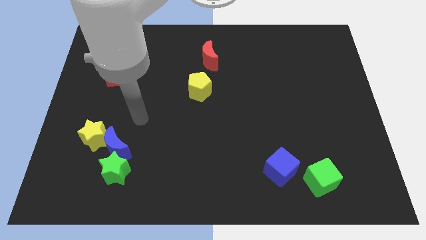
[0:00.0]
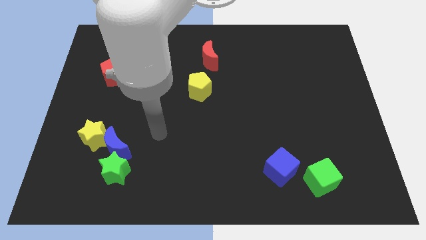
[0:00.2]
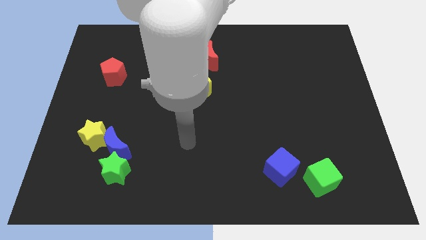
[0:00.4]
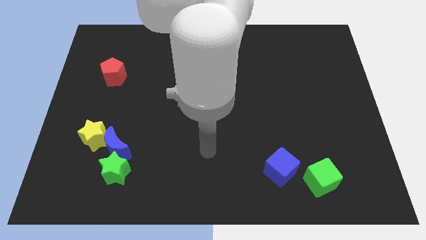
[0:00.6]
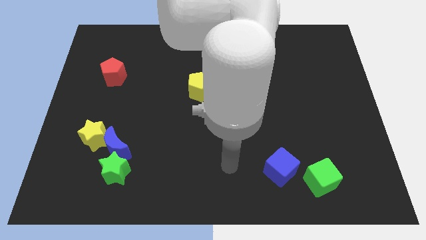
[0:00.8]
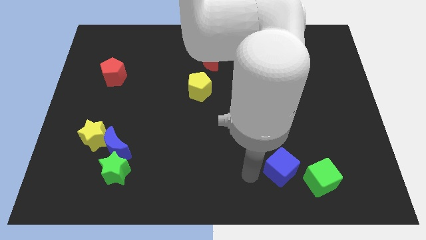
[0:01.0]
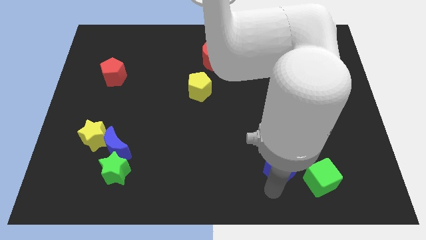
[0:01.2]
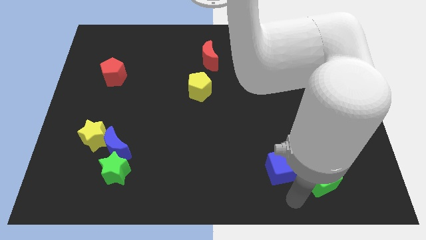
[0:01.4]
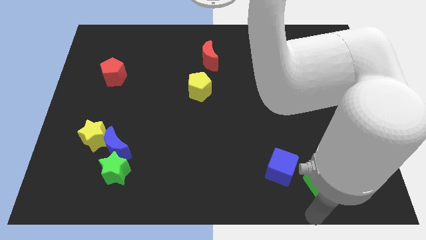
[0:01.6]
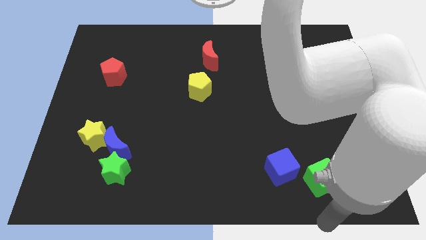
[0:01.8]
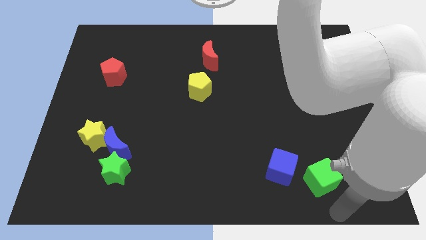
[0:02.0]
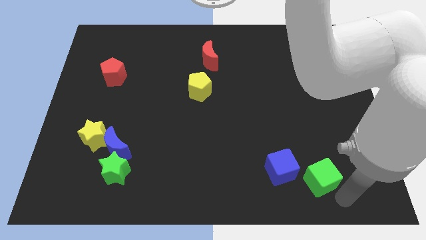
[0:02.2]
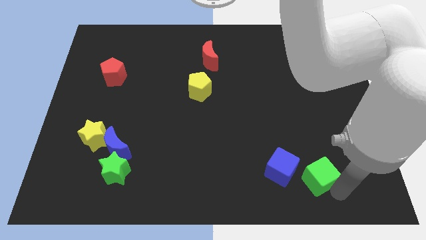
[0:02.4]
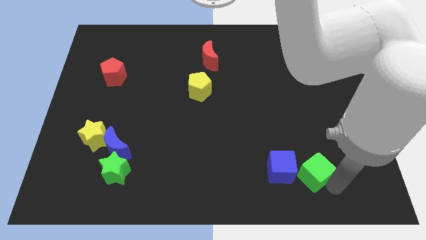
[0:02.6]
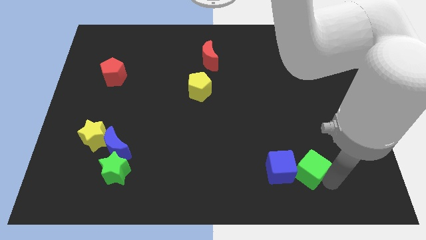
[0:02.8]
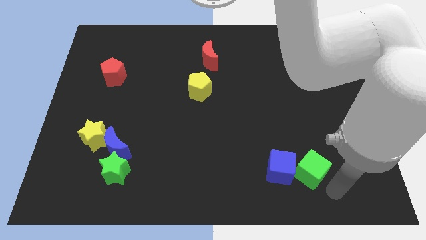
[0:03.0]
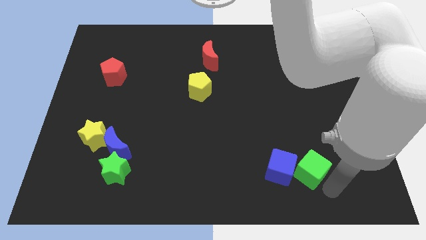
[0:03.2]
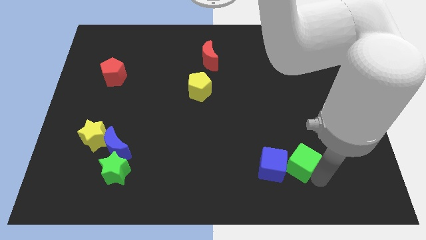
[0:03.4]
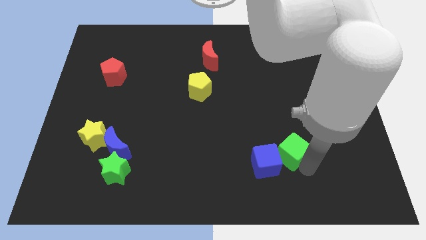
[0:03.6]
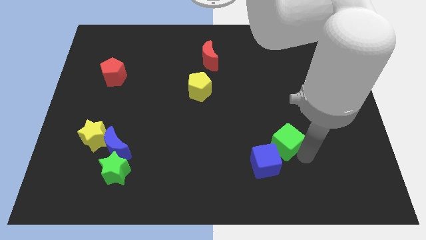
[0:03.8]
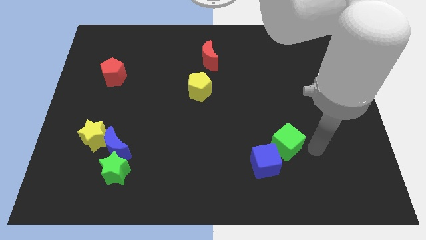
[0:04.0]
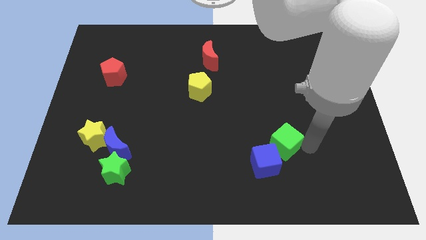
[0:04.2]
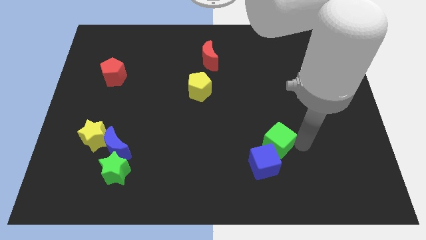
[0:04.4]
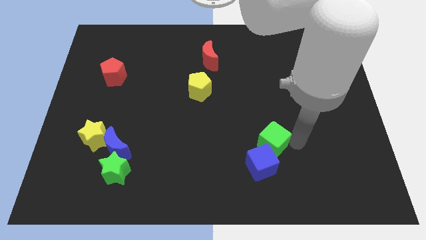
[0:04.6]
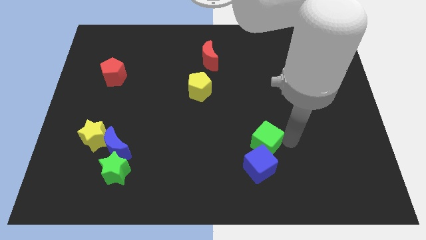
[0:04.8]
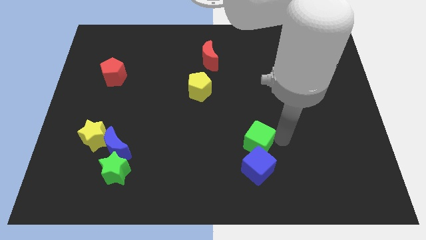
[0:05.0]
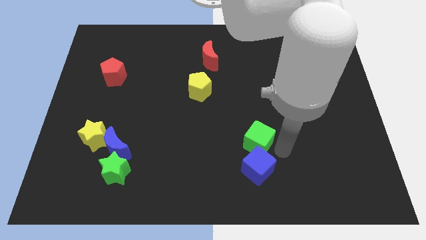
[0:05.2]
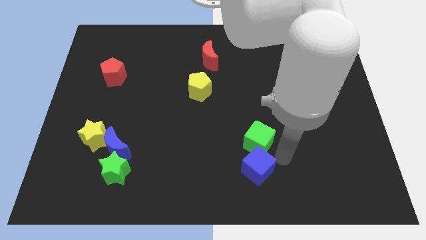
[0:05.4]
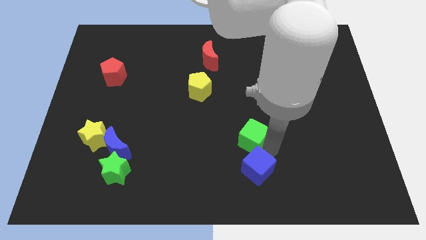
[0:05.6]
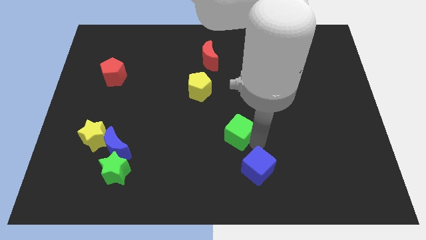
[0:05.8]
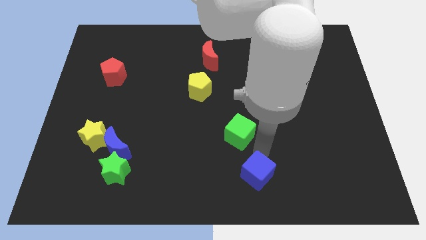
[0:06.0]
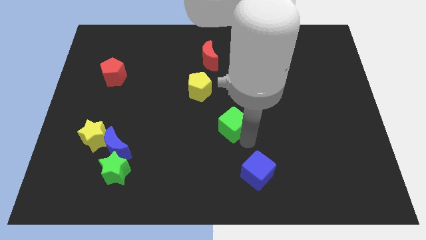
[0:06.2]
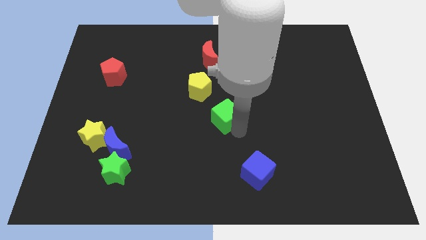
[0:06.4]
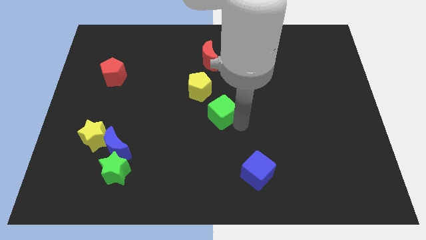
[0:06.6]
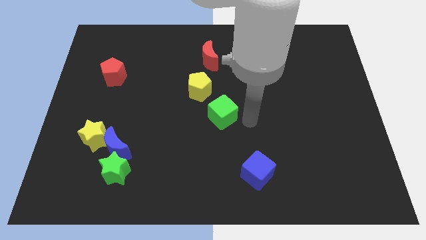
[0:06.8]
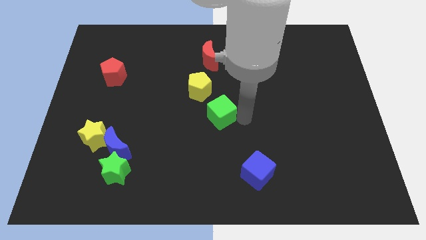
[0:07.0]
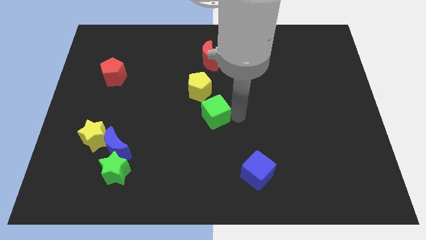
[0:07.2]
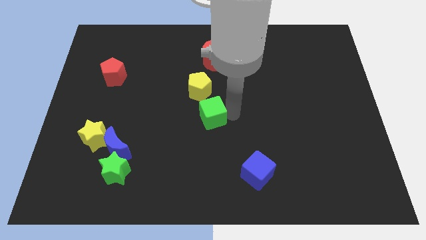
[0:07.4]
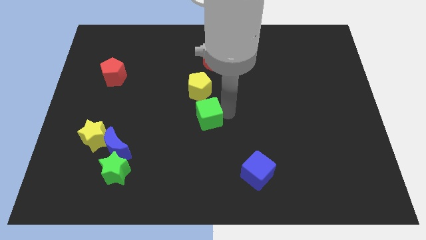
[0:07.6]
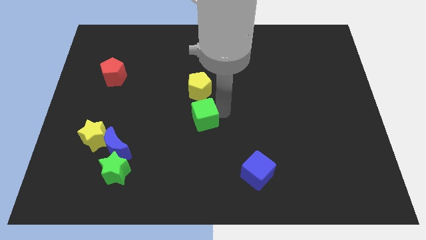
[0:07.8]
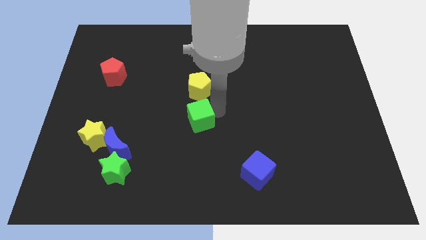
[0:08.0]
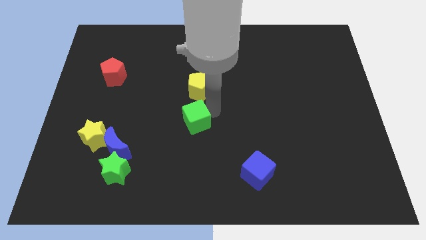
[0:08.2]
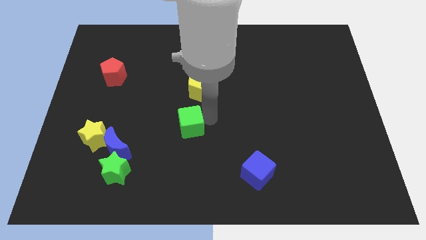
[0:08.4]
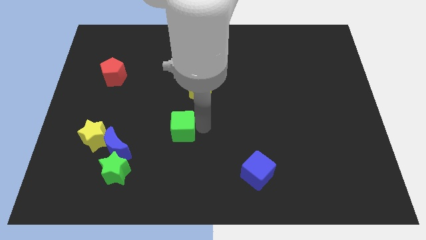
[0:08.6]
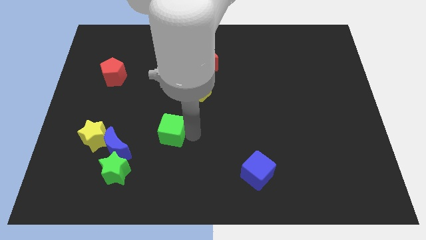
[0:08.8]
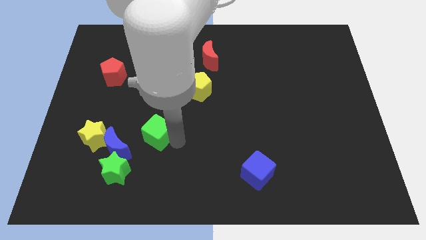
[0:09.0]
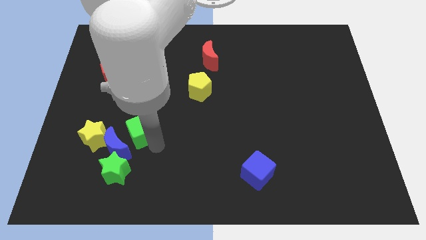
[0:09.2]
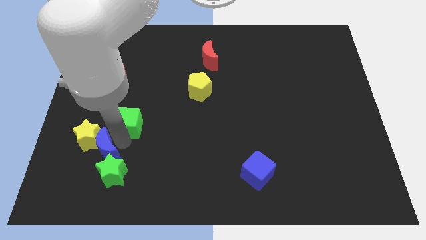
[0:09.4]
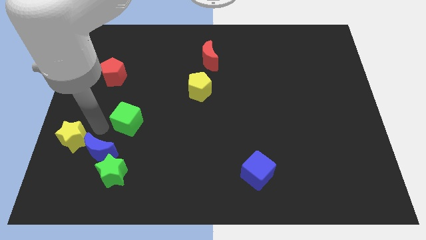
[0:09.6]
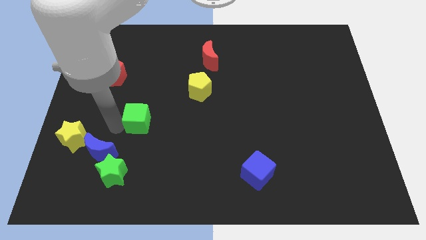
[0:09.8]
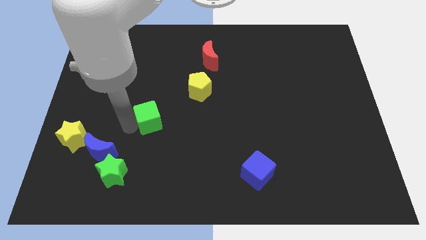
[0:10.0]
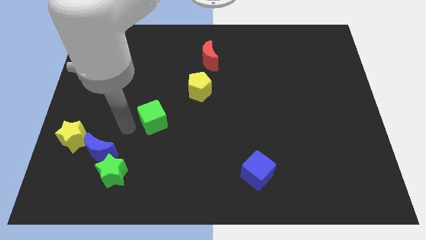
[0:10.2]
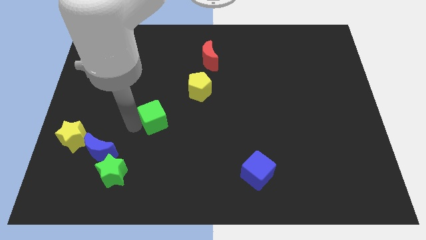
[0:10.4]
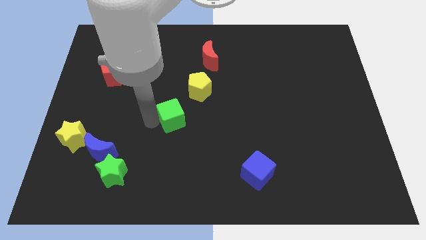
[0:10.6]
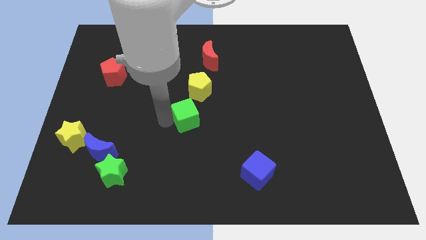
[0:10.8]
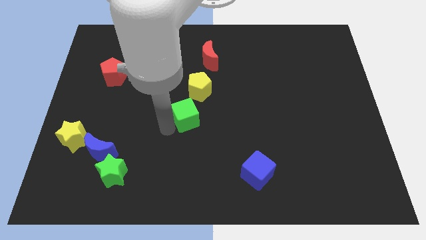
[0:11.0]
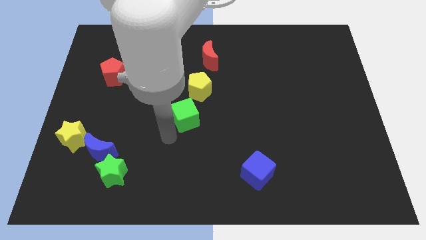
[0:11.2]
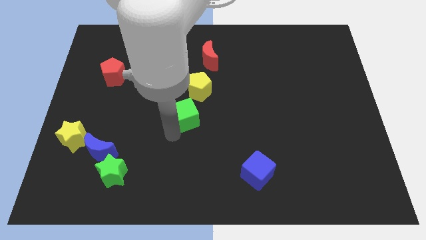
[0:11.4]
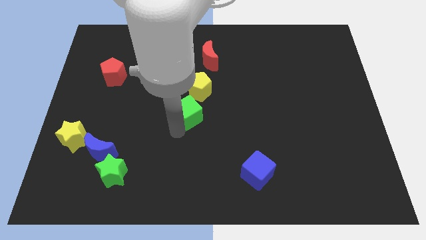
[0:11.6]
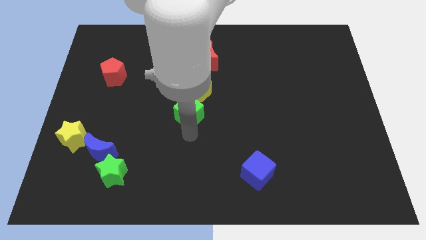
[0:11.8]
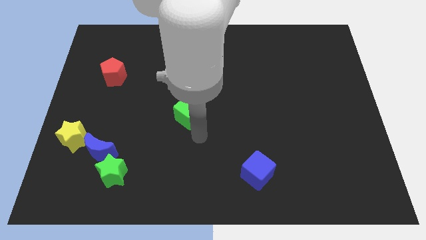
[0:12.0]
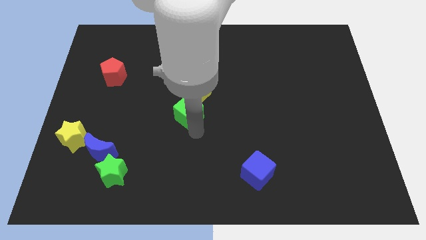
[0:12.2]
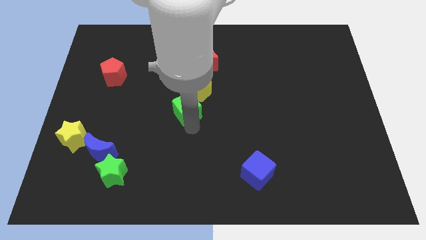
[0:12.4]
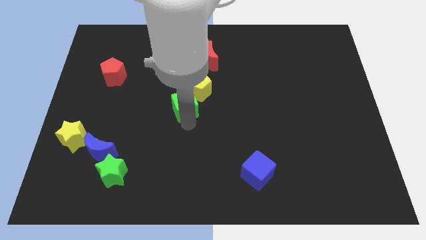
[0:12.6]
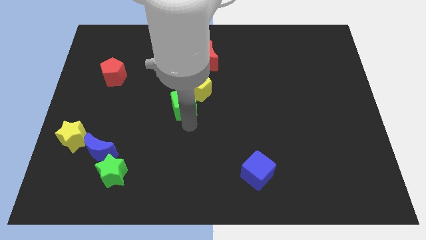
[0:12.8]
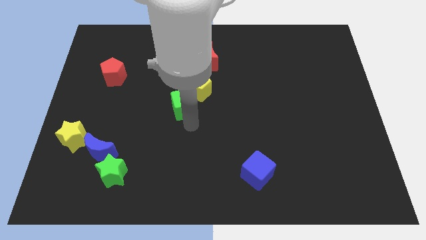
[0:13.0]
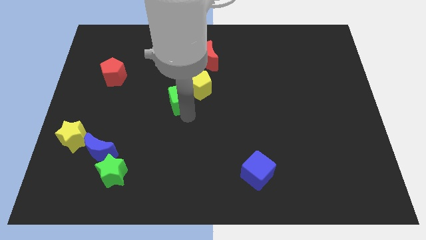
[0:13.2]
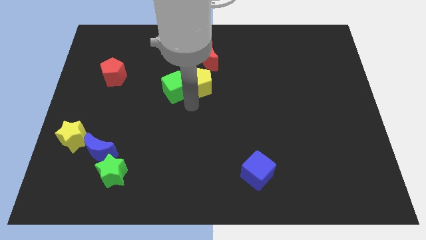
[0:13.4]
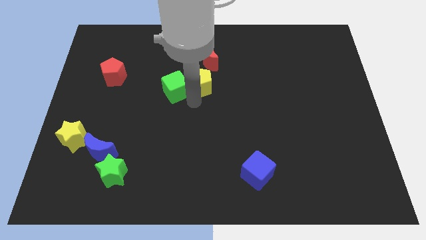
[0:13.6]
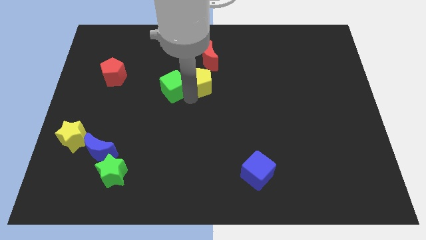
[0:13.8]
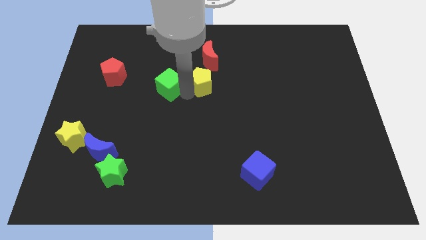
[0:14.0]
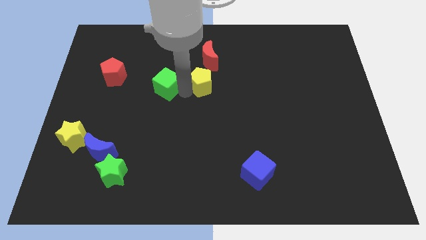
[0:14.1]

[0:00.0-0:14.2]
move the green cube just right of the red pentagon
